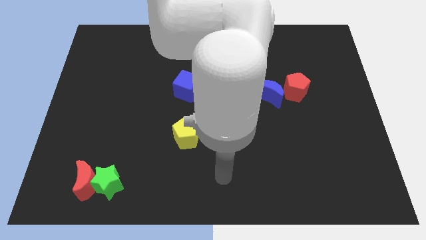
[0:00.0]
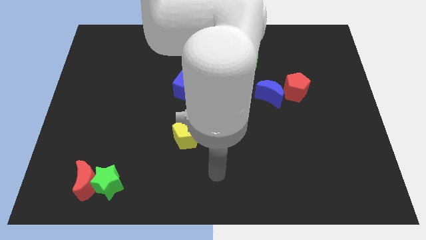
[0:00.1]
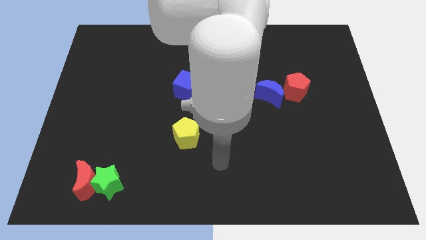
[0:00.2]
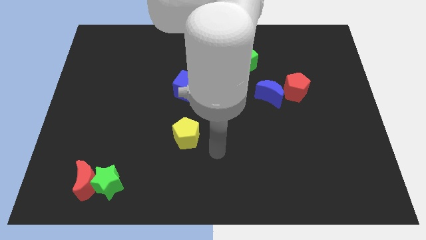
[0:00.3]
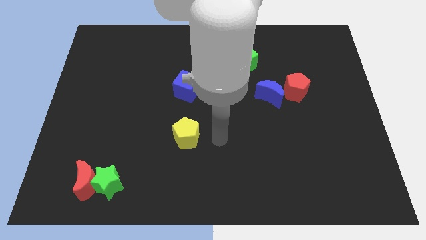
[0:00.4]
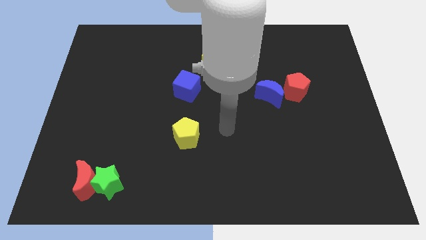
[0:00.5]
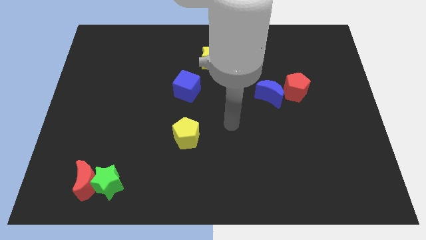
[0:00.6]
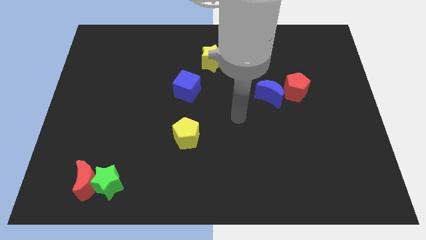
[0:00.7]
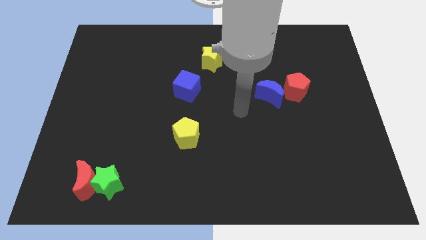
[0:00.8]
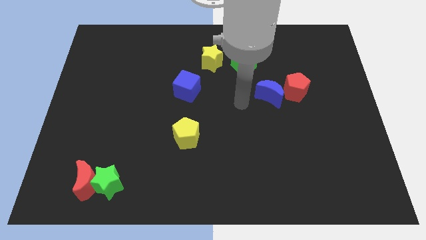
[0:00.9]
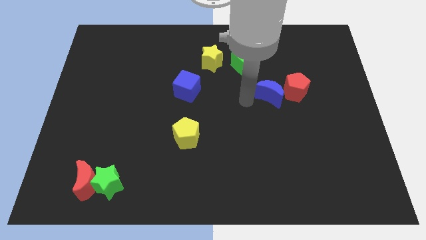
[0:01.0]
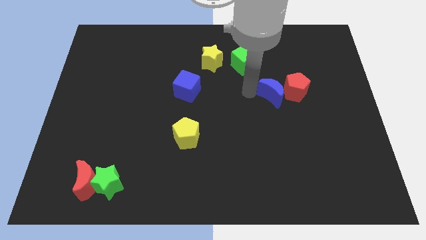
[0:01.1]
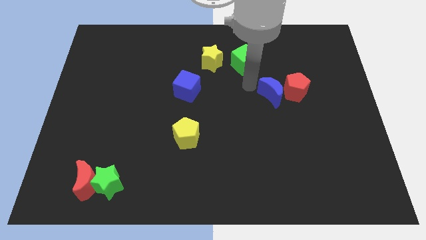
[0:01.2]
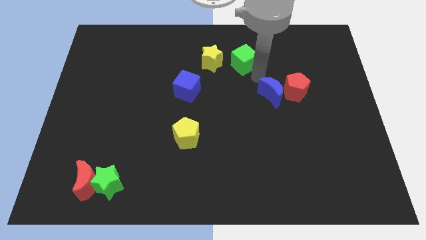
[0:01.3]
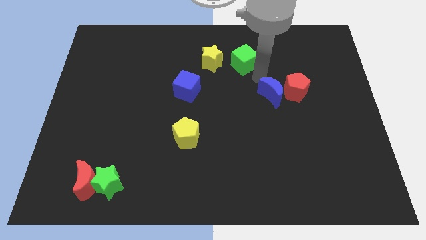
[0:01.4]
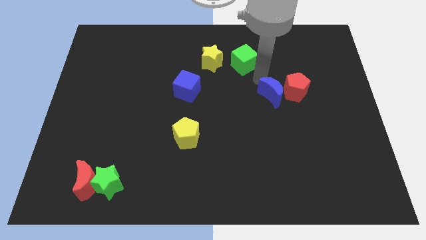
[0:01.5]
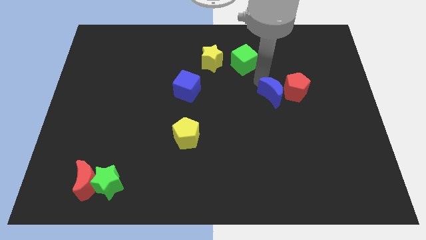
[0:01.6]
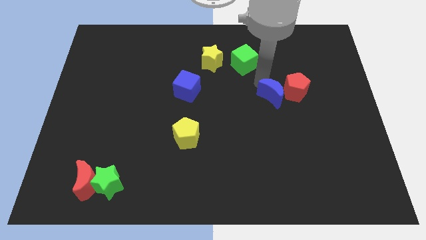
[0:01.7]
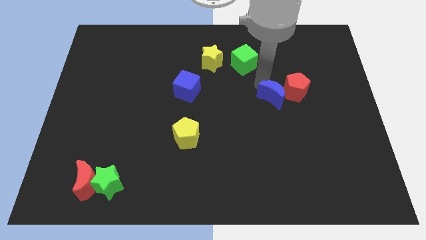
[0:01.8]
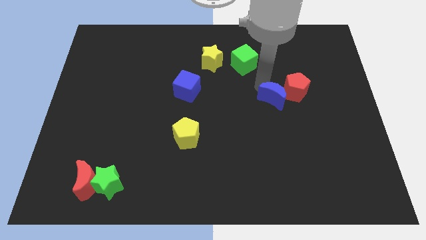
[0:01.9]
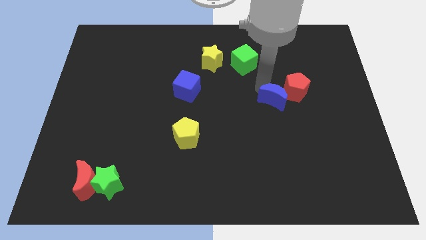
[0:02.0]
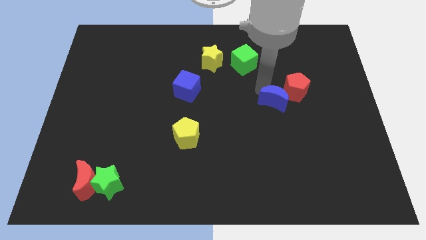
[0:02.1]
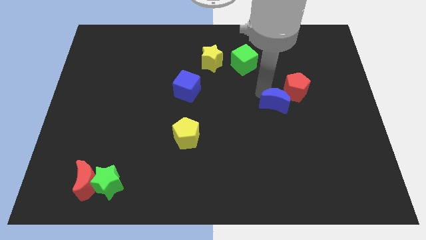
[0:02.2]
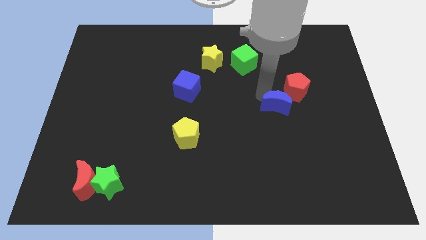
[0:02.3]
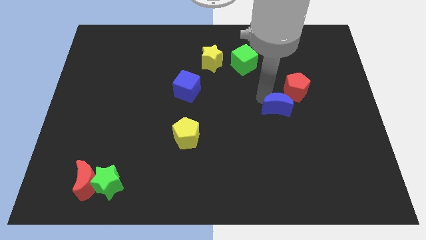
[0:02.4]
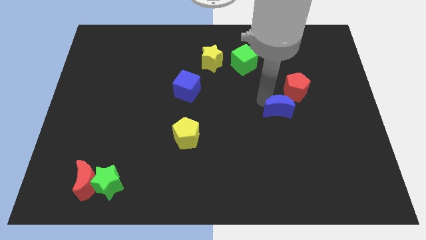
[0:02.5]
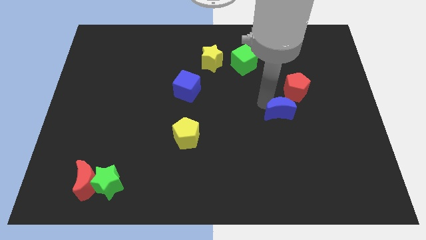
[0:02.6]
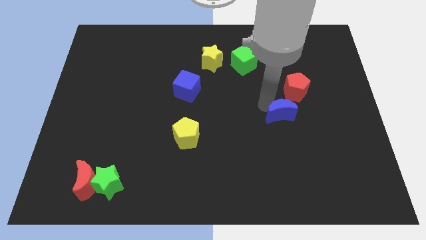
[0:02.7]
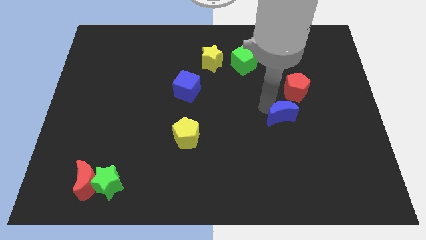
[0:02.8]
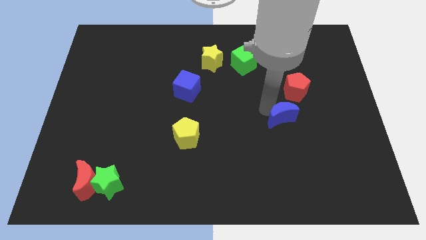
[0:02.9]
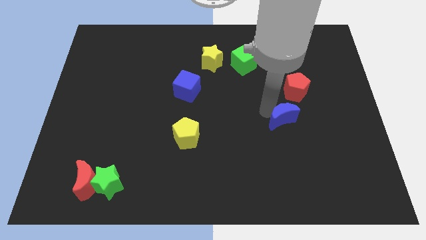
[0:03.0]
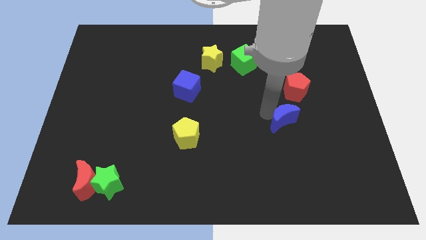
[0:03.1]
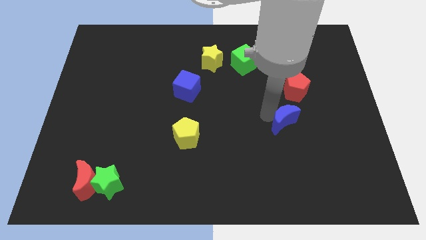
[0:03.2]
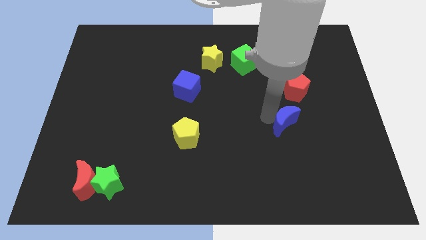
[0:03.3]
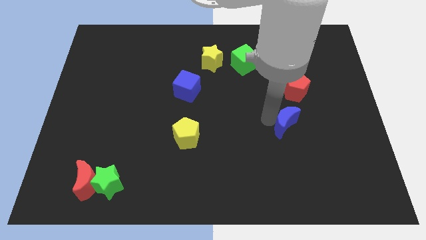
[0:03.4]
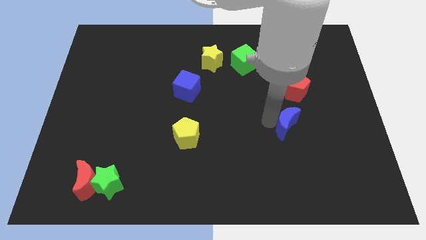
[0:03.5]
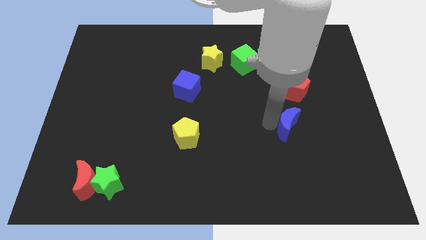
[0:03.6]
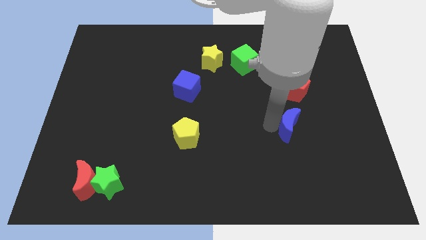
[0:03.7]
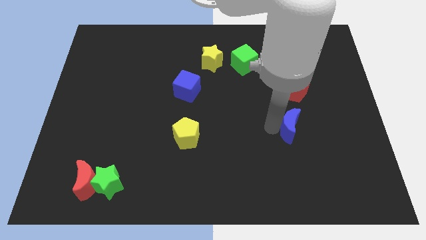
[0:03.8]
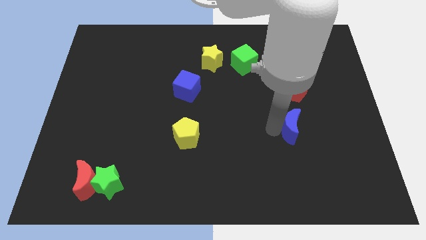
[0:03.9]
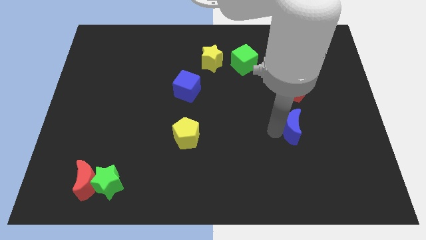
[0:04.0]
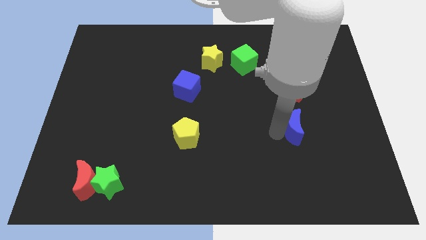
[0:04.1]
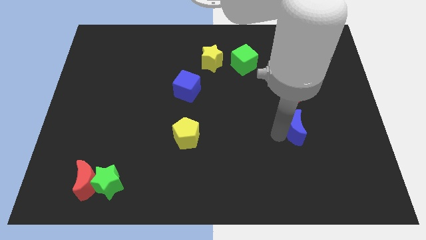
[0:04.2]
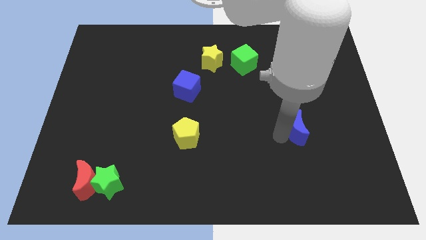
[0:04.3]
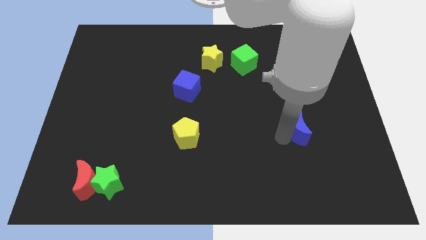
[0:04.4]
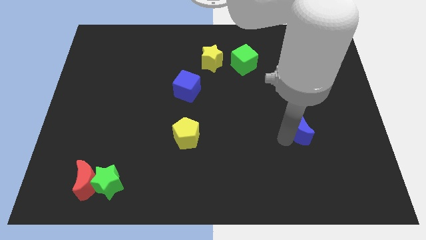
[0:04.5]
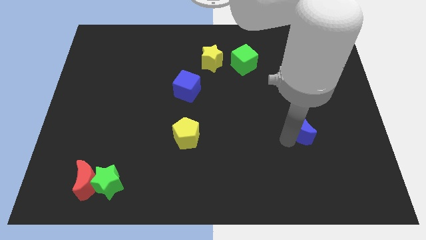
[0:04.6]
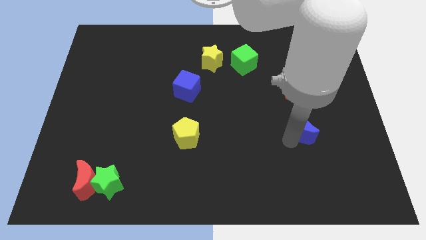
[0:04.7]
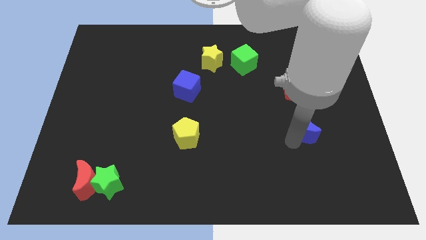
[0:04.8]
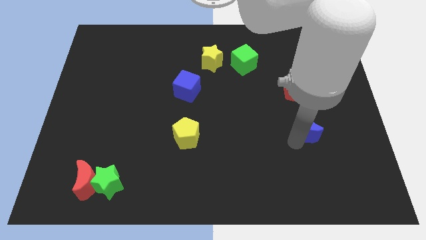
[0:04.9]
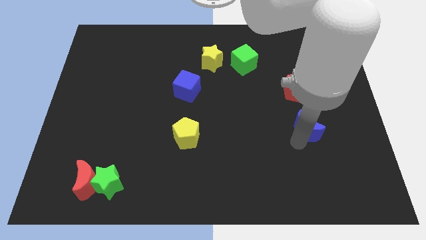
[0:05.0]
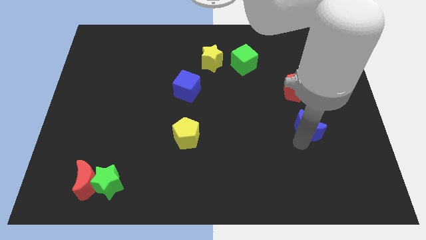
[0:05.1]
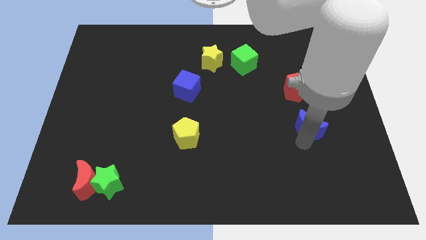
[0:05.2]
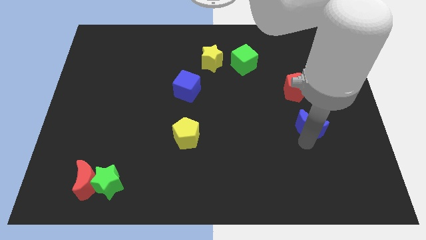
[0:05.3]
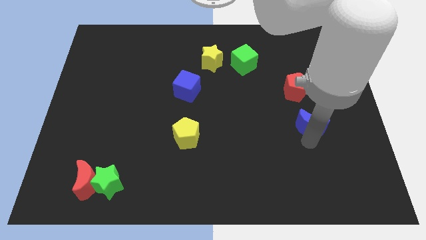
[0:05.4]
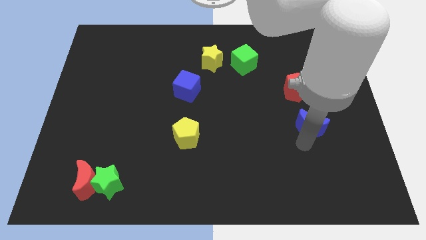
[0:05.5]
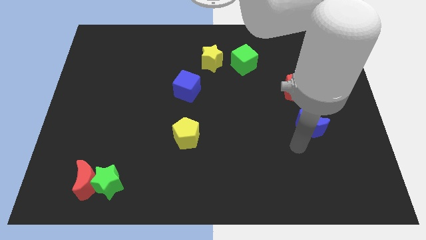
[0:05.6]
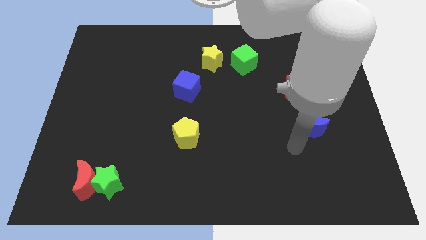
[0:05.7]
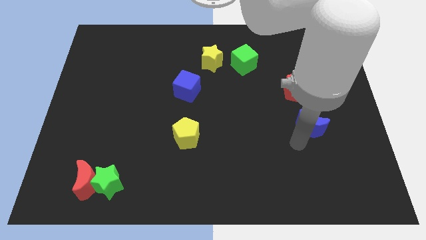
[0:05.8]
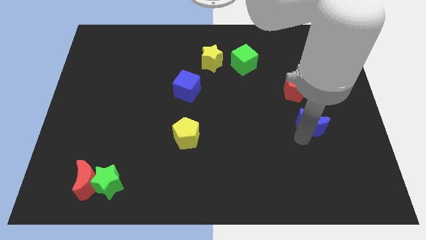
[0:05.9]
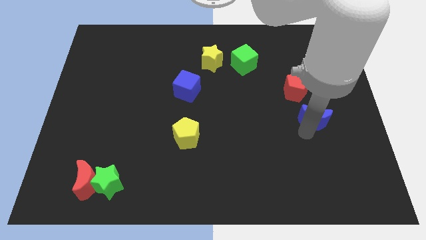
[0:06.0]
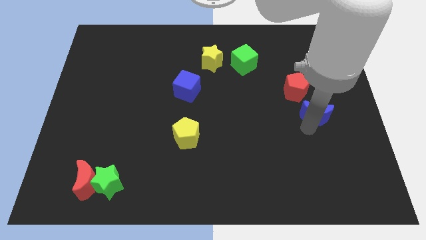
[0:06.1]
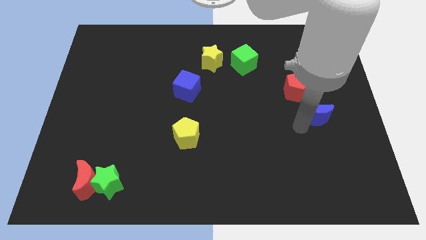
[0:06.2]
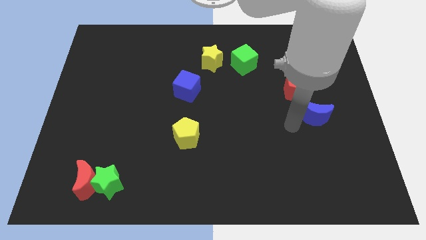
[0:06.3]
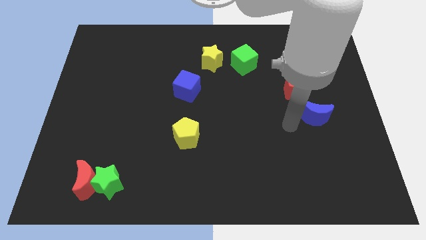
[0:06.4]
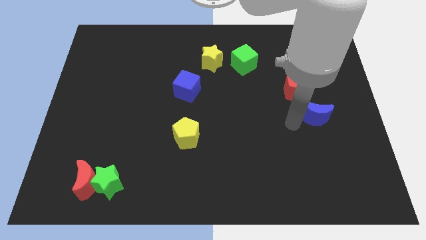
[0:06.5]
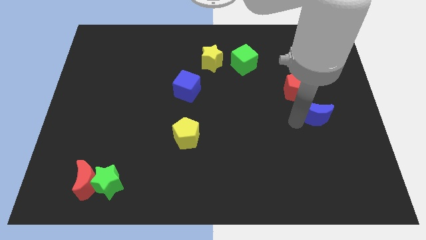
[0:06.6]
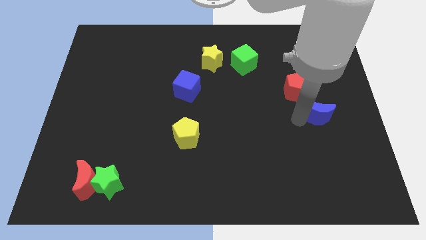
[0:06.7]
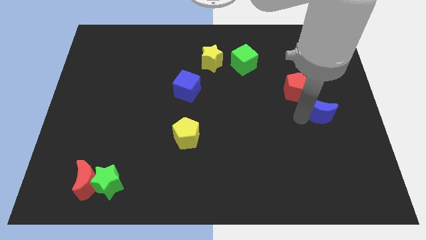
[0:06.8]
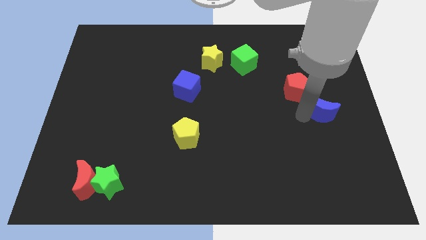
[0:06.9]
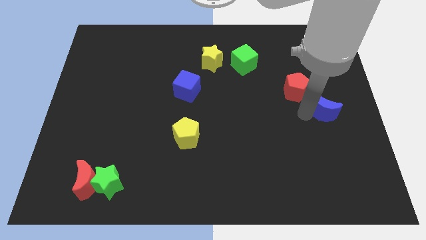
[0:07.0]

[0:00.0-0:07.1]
put the blue moon to the center right
